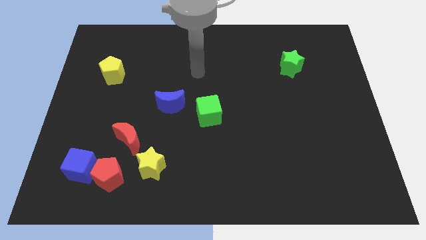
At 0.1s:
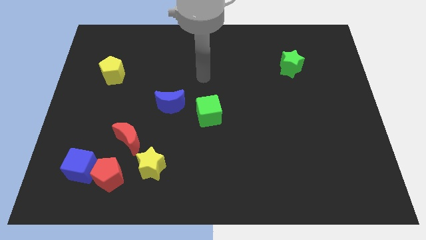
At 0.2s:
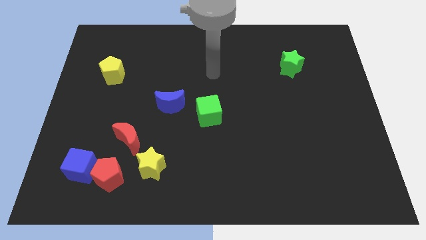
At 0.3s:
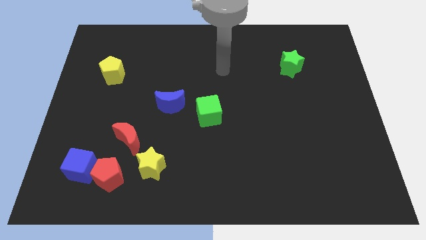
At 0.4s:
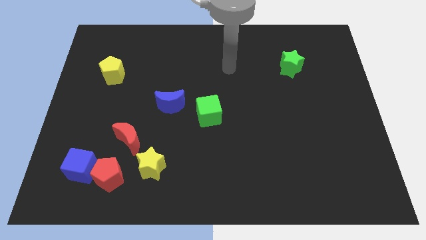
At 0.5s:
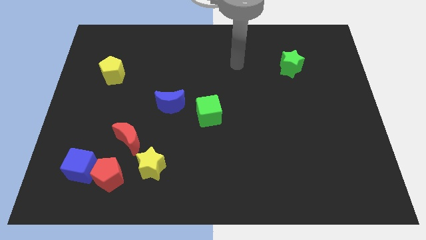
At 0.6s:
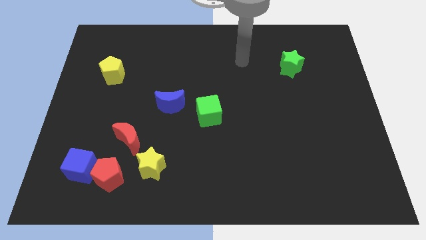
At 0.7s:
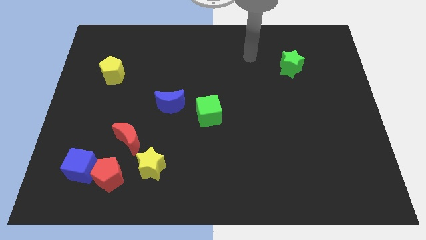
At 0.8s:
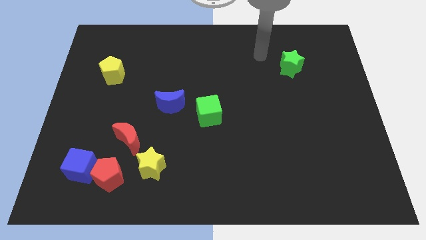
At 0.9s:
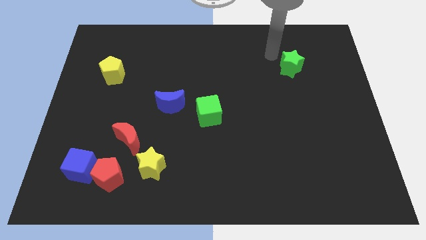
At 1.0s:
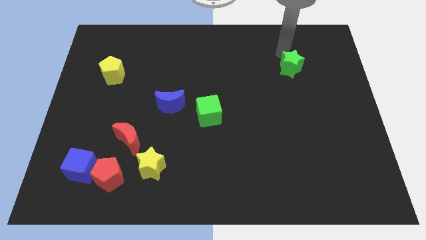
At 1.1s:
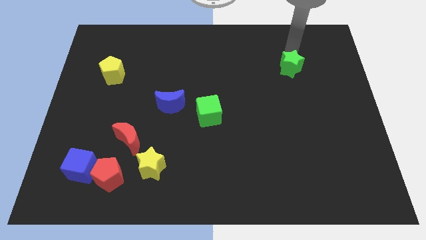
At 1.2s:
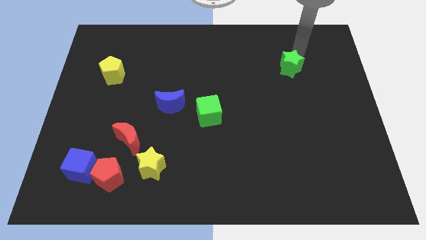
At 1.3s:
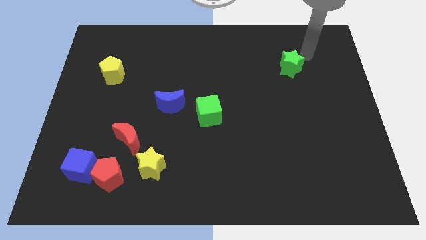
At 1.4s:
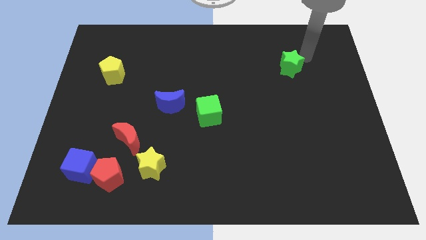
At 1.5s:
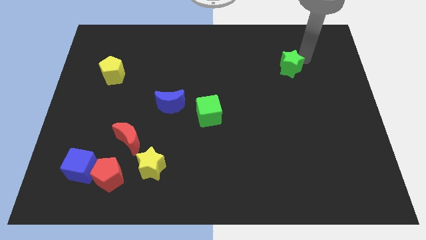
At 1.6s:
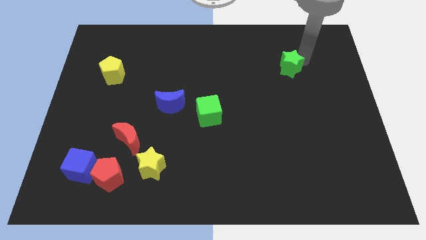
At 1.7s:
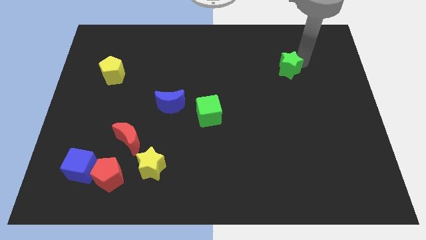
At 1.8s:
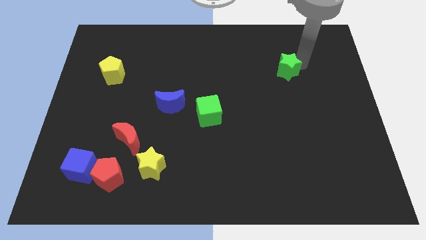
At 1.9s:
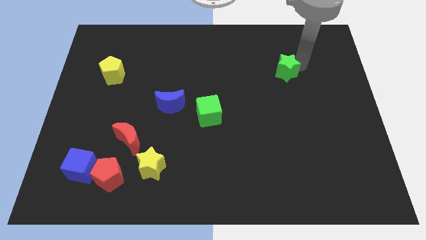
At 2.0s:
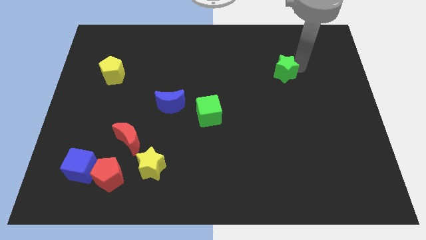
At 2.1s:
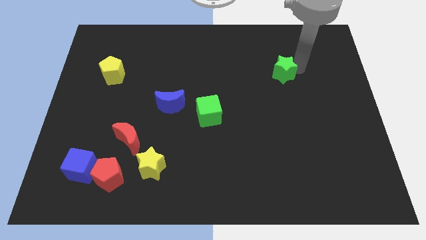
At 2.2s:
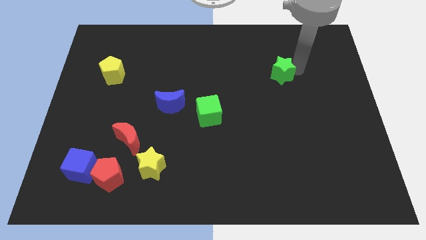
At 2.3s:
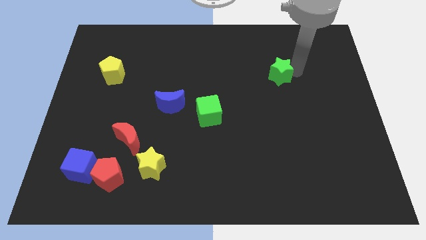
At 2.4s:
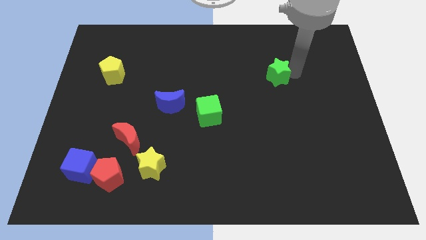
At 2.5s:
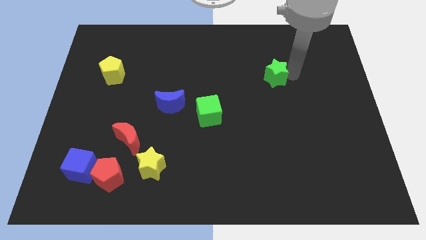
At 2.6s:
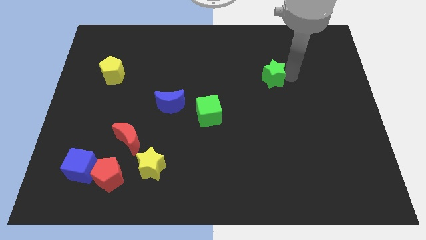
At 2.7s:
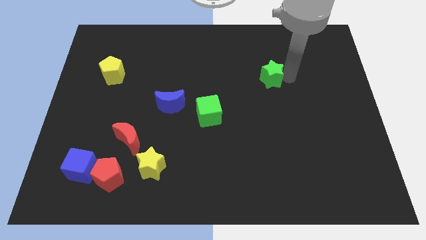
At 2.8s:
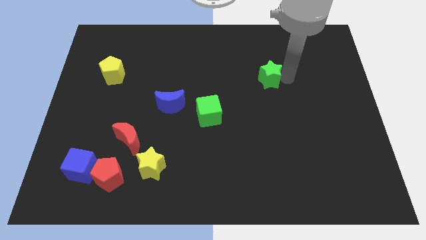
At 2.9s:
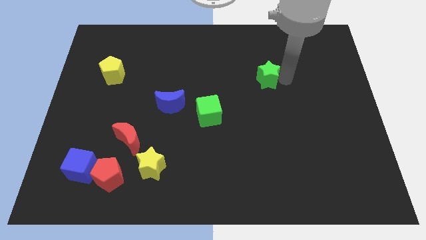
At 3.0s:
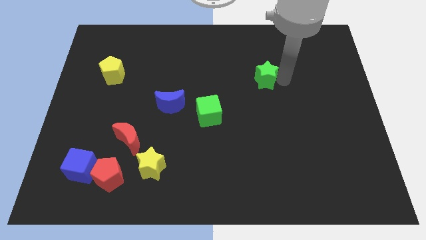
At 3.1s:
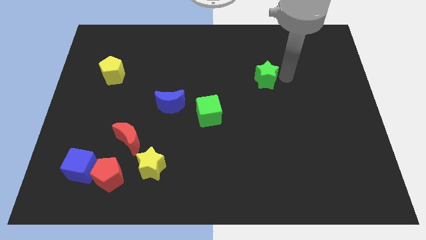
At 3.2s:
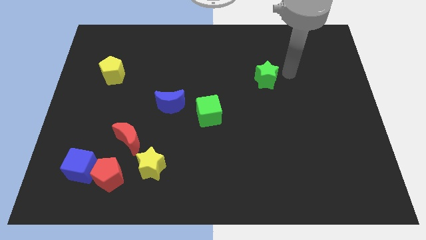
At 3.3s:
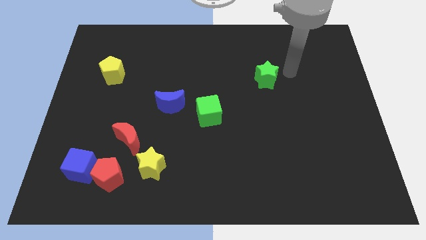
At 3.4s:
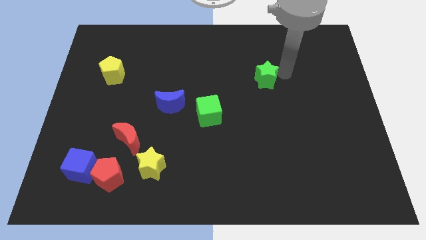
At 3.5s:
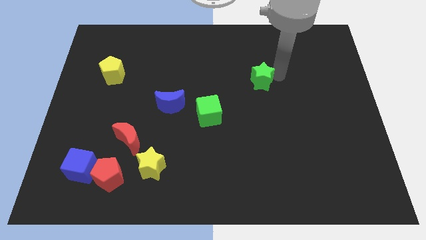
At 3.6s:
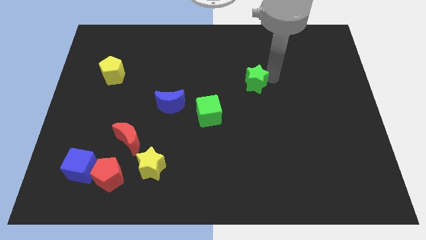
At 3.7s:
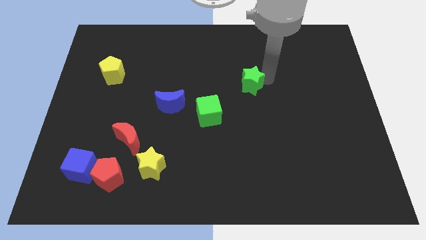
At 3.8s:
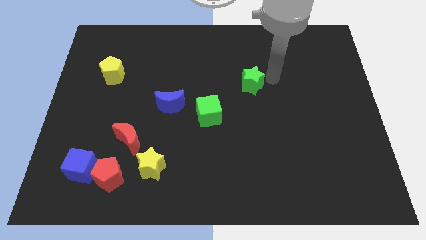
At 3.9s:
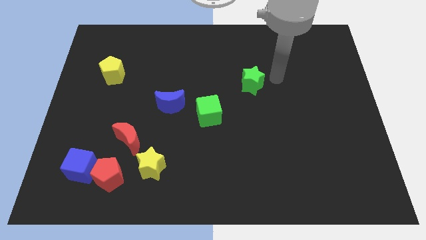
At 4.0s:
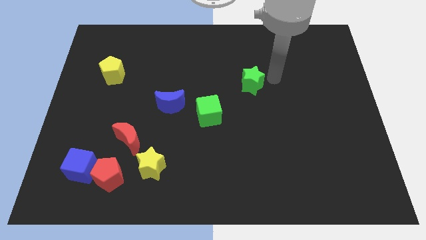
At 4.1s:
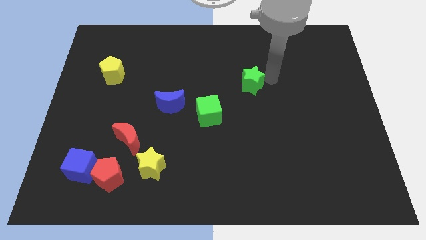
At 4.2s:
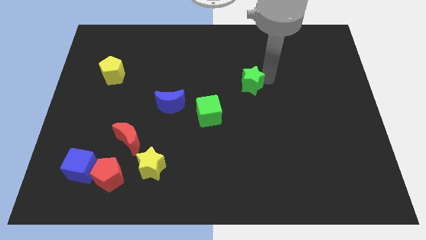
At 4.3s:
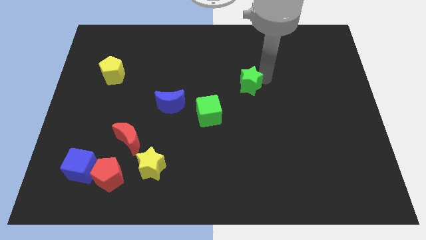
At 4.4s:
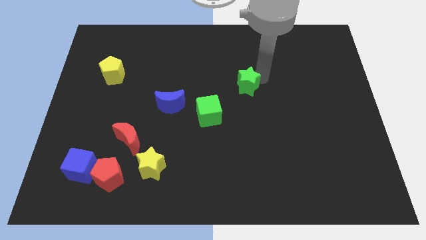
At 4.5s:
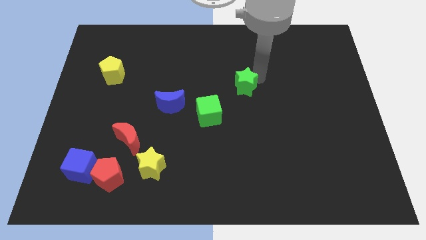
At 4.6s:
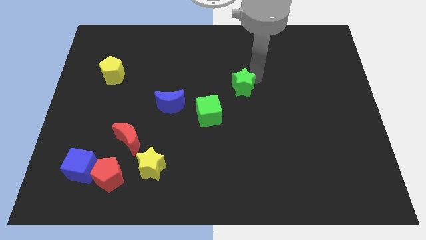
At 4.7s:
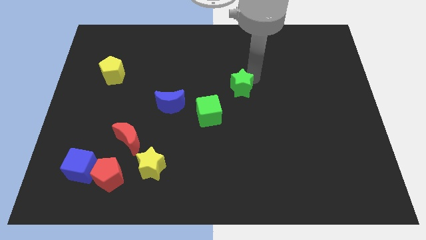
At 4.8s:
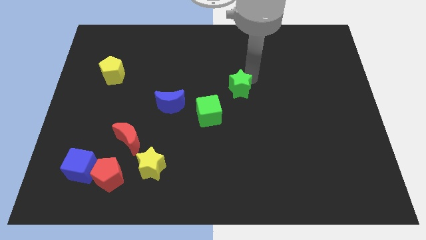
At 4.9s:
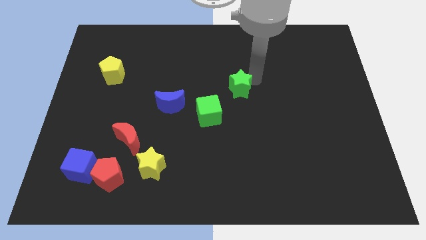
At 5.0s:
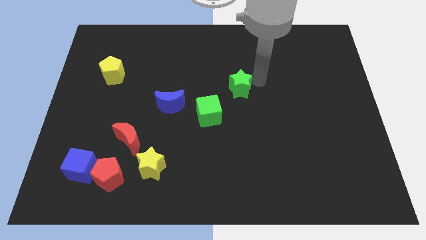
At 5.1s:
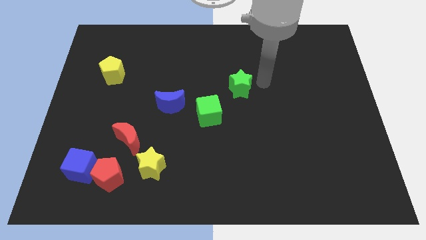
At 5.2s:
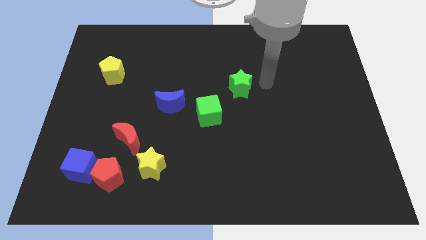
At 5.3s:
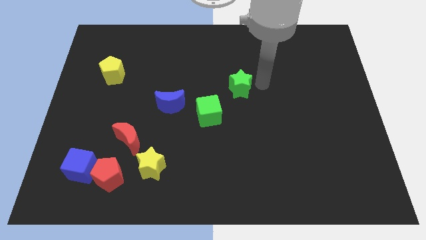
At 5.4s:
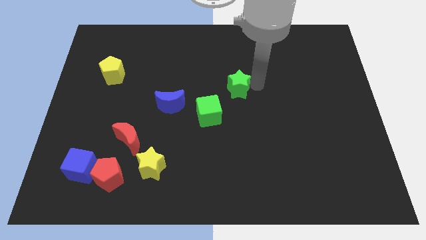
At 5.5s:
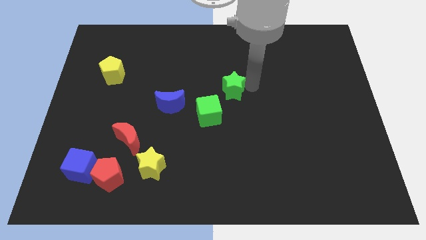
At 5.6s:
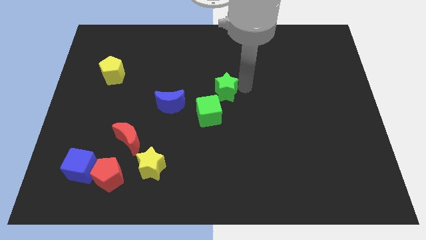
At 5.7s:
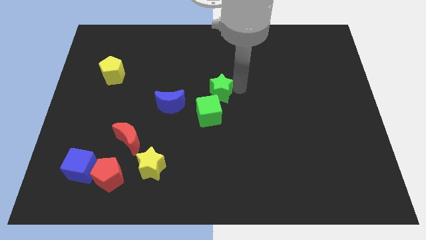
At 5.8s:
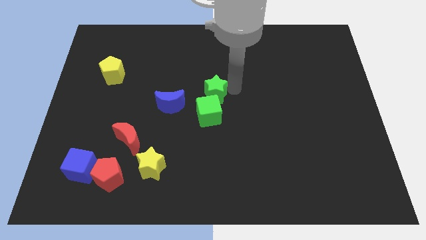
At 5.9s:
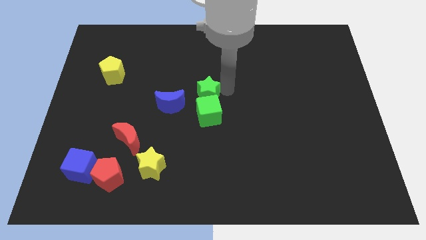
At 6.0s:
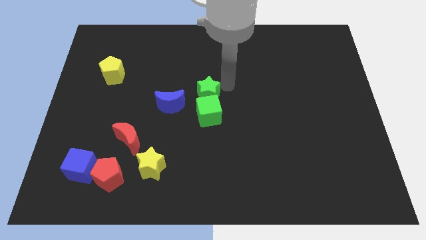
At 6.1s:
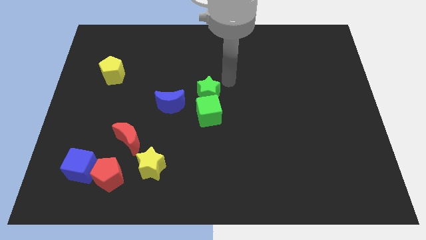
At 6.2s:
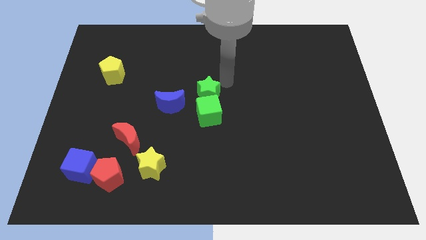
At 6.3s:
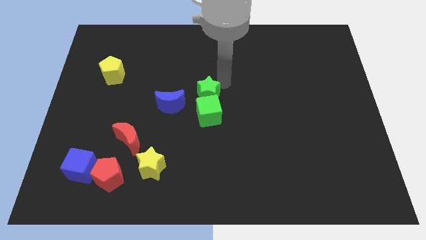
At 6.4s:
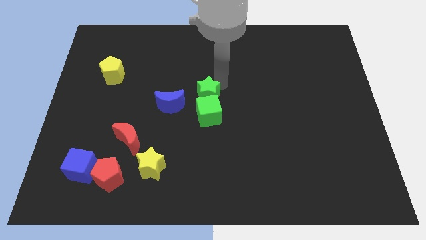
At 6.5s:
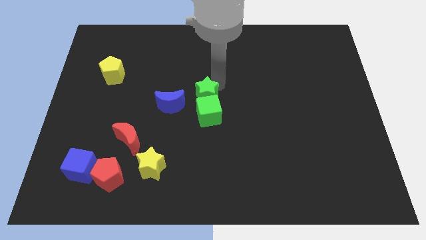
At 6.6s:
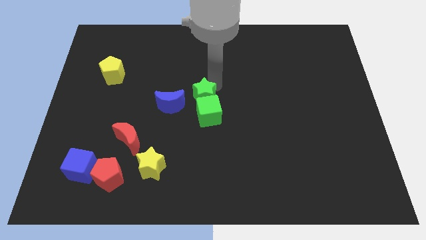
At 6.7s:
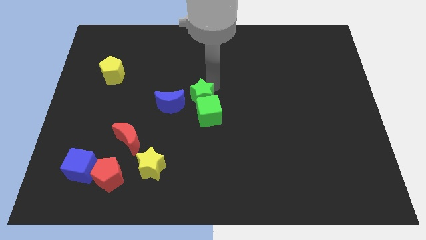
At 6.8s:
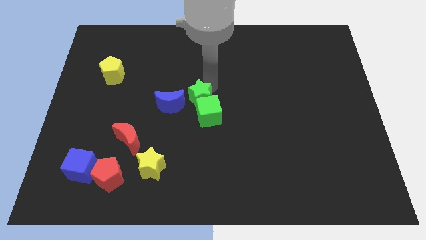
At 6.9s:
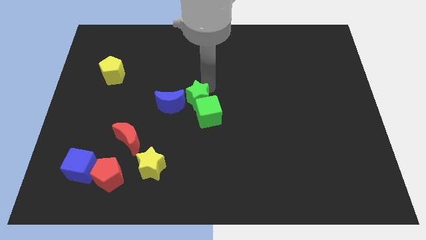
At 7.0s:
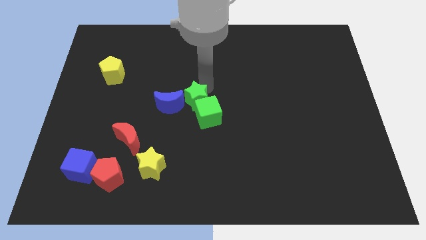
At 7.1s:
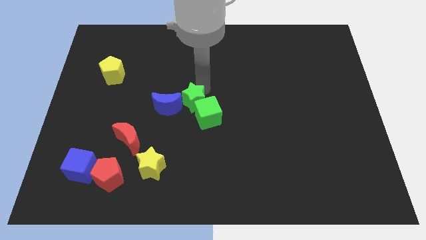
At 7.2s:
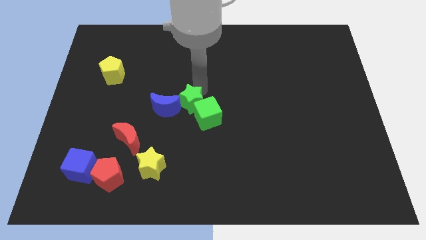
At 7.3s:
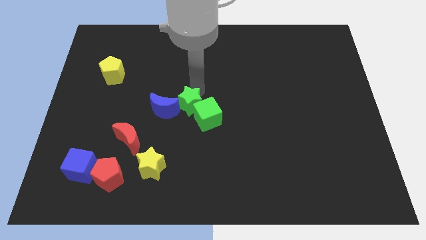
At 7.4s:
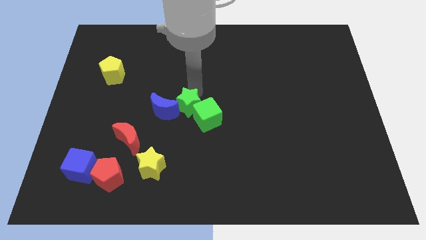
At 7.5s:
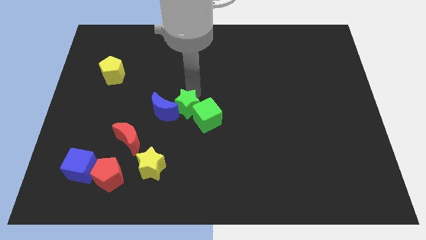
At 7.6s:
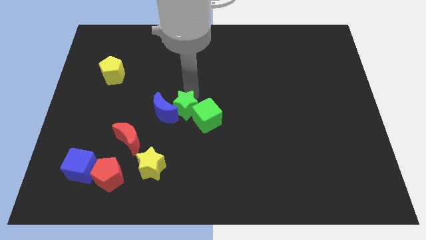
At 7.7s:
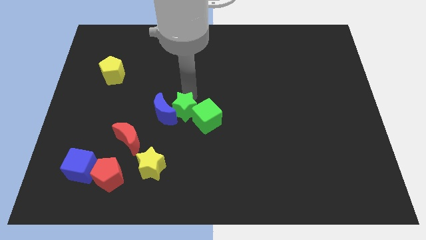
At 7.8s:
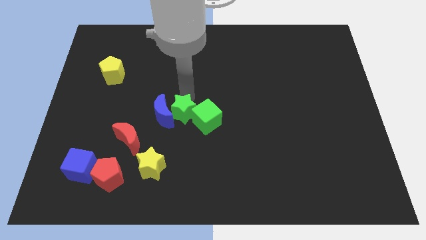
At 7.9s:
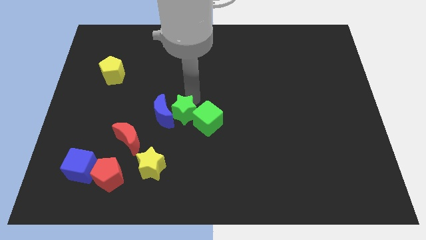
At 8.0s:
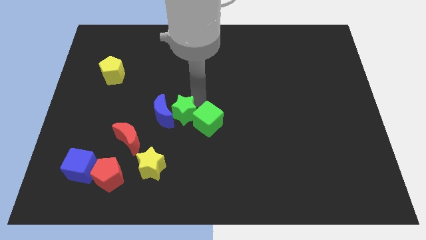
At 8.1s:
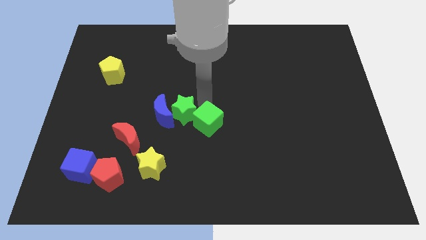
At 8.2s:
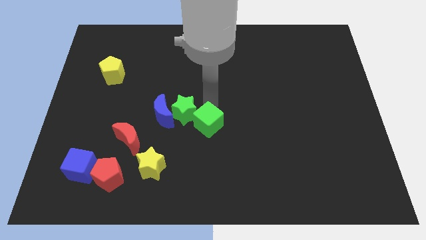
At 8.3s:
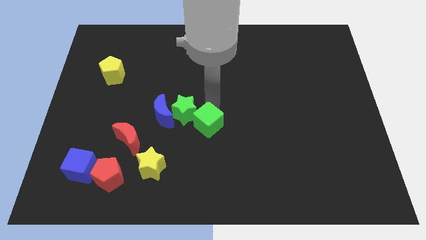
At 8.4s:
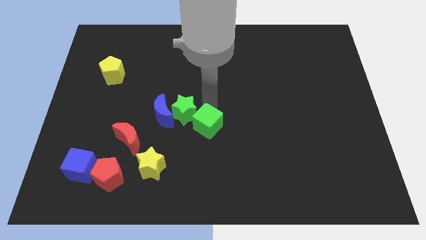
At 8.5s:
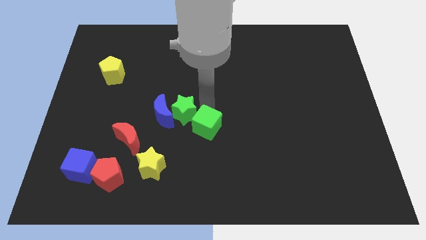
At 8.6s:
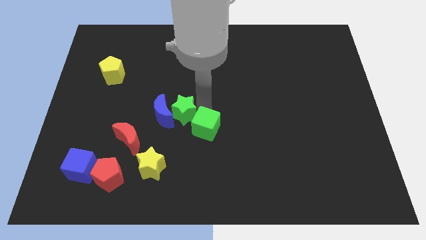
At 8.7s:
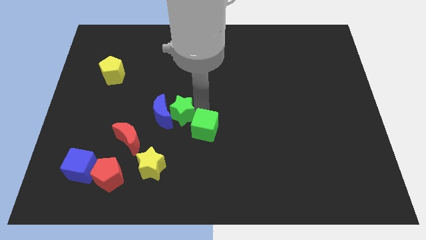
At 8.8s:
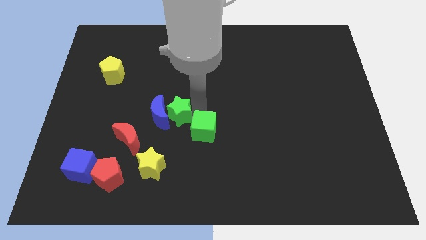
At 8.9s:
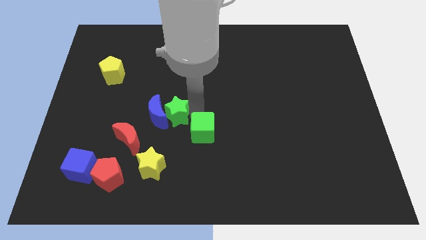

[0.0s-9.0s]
slide the green star diagonally up and to the right of the red moon
